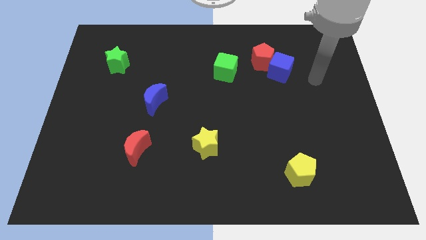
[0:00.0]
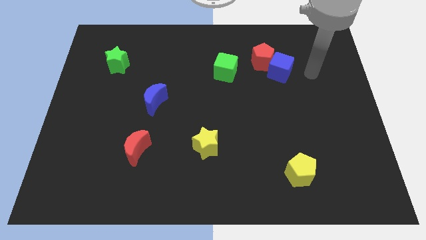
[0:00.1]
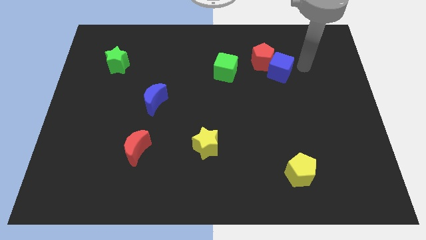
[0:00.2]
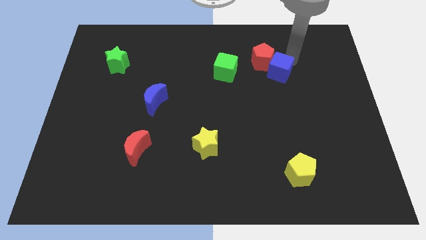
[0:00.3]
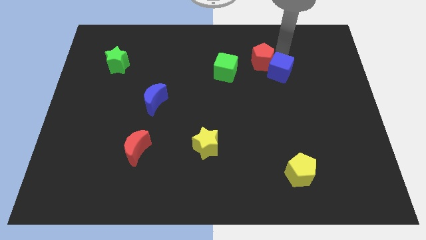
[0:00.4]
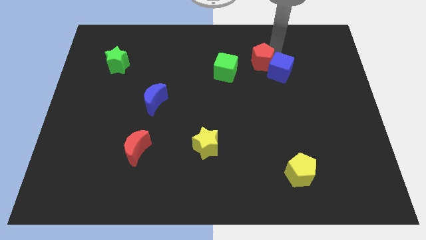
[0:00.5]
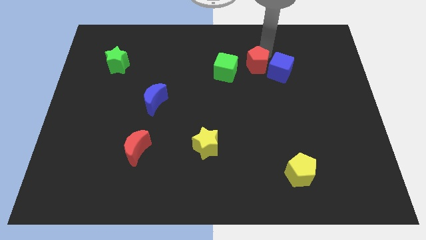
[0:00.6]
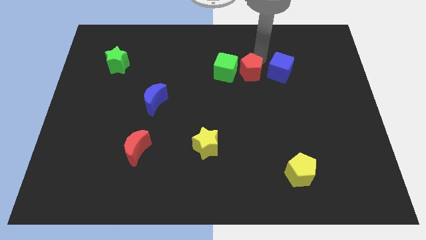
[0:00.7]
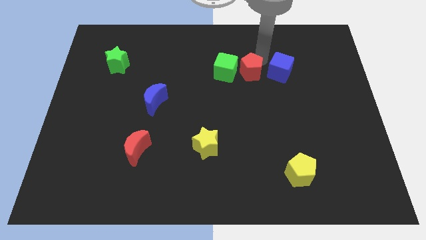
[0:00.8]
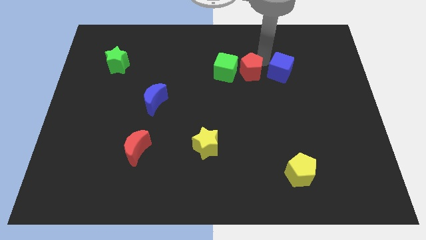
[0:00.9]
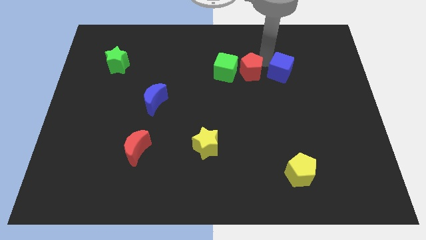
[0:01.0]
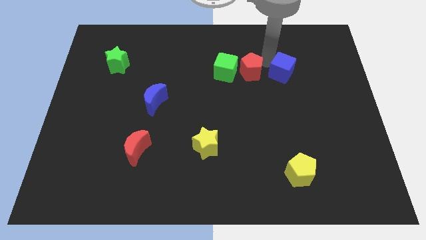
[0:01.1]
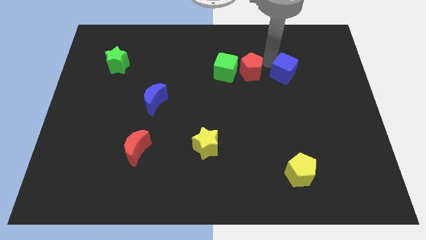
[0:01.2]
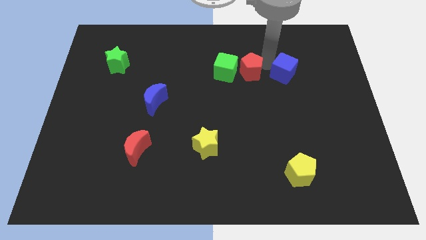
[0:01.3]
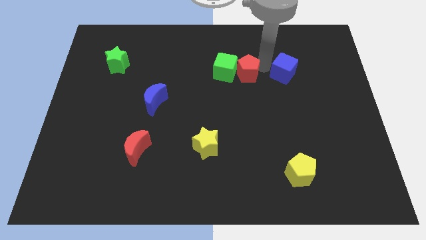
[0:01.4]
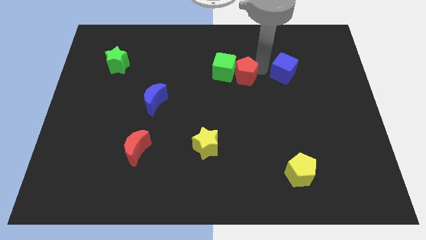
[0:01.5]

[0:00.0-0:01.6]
pull the blue cube apart from the red pentagon

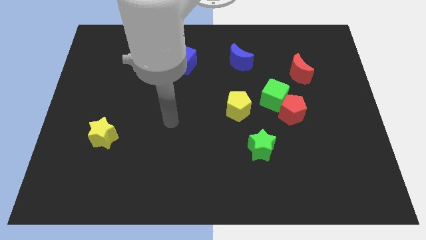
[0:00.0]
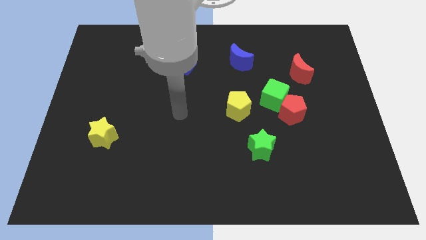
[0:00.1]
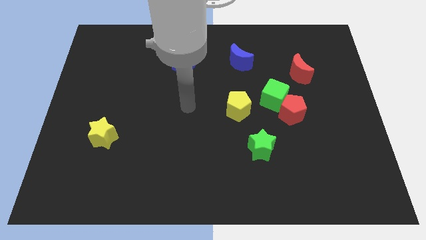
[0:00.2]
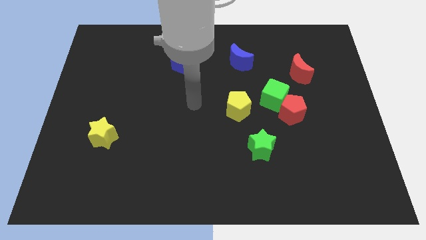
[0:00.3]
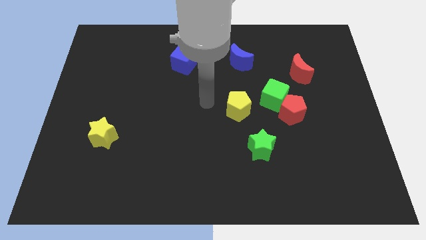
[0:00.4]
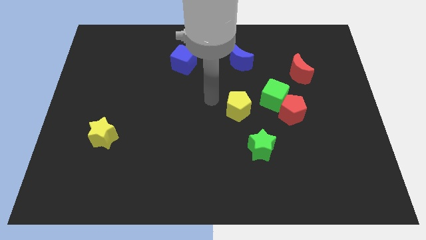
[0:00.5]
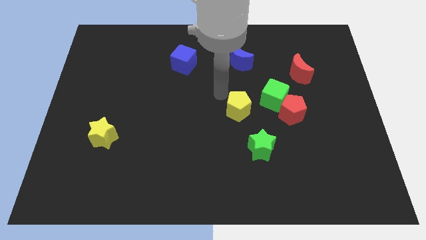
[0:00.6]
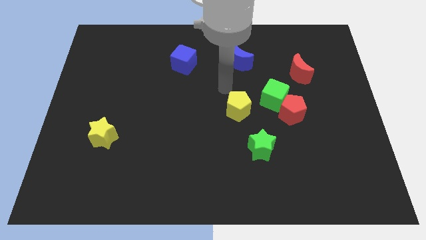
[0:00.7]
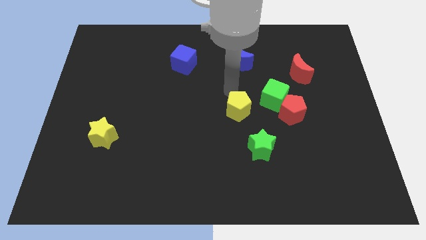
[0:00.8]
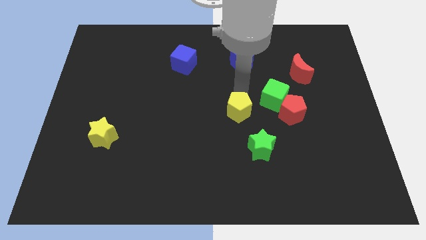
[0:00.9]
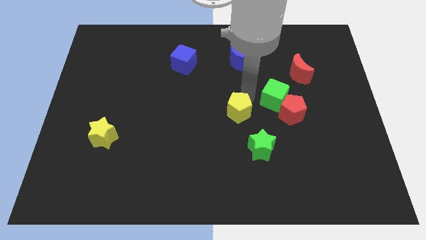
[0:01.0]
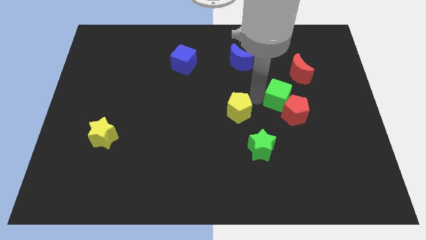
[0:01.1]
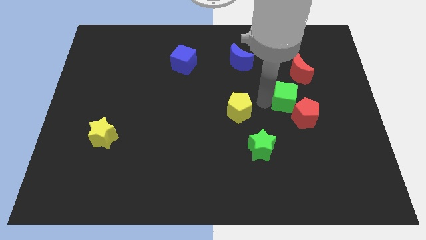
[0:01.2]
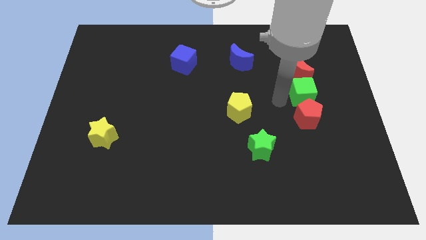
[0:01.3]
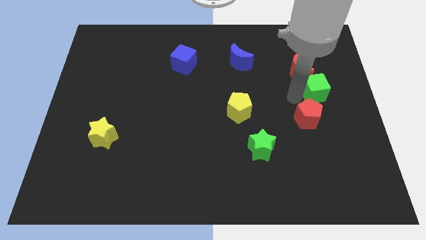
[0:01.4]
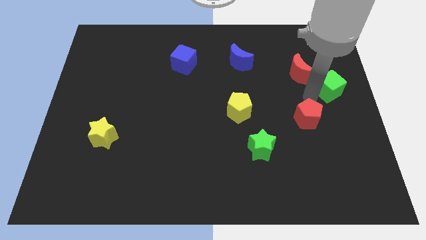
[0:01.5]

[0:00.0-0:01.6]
move the red pentagon away from the green cube

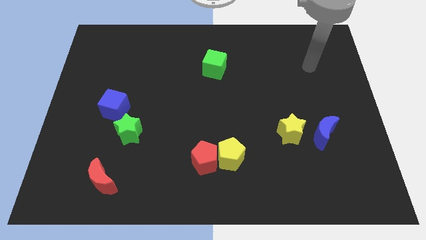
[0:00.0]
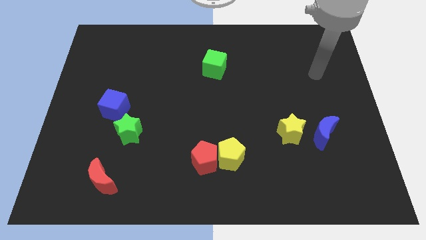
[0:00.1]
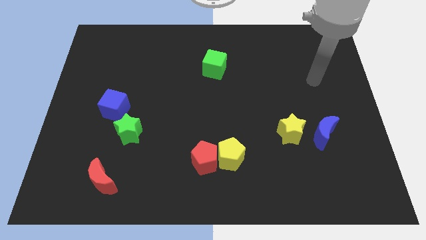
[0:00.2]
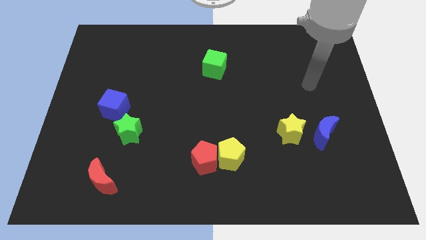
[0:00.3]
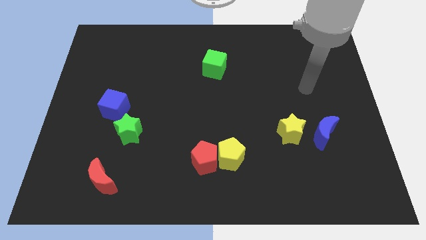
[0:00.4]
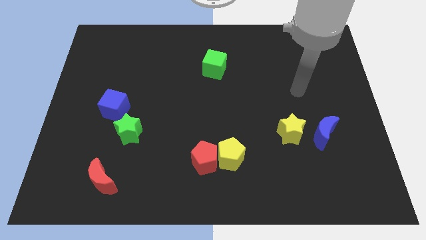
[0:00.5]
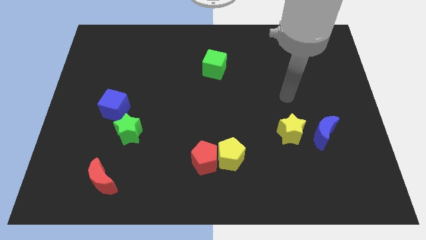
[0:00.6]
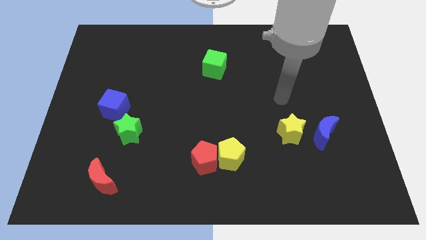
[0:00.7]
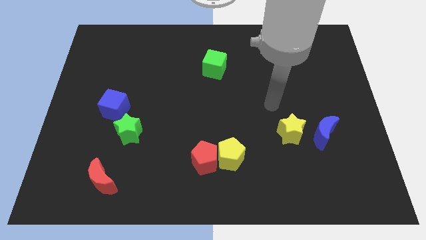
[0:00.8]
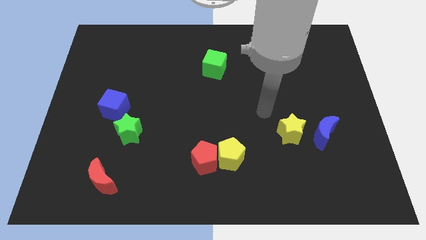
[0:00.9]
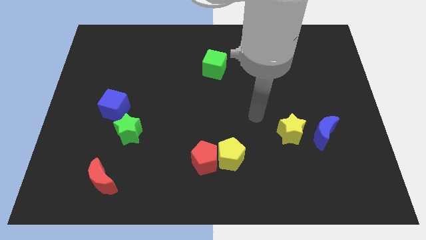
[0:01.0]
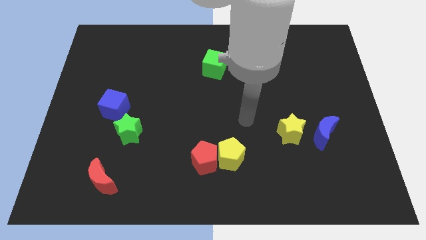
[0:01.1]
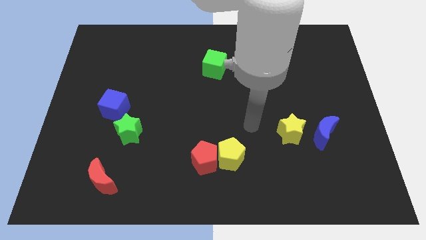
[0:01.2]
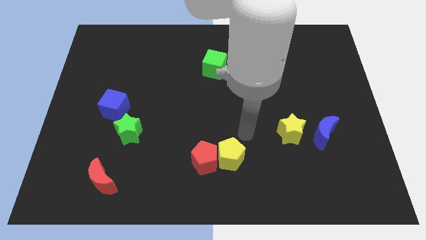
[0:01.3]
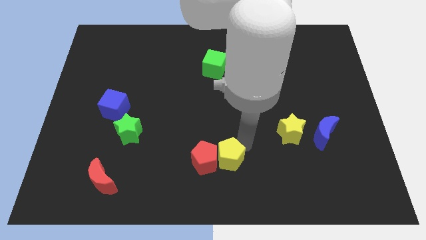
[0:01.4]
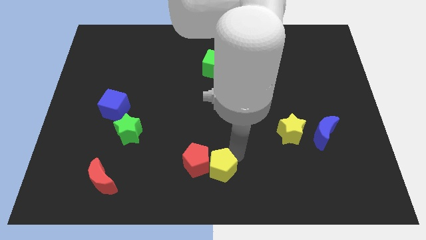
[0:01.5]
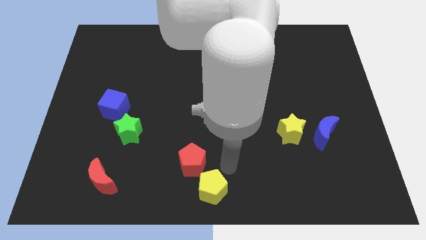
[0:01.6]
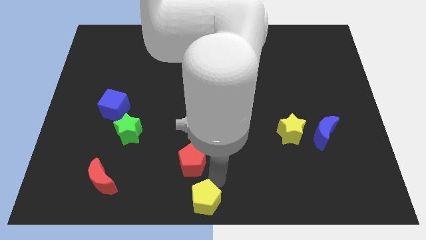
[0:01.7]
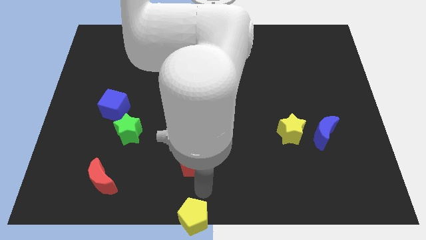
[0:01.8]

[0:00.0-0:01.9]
pull the red pentagon apart from the yellow pentagon

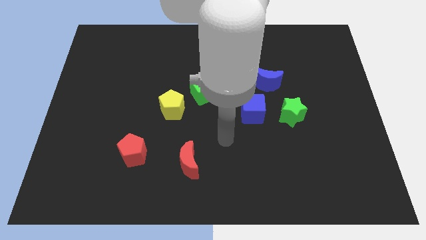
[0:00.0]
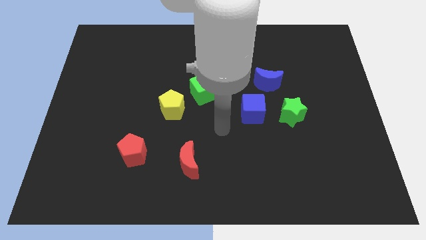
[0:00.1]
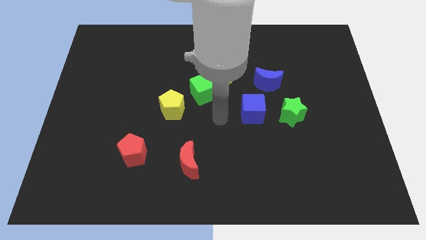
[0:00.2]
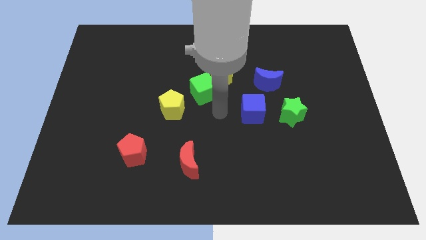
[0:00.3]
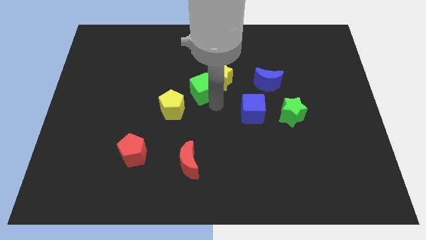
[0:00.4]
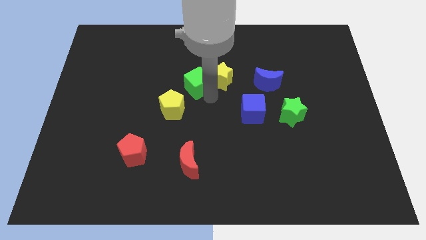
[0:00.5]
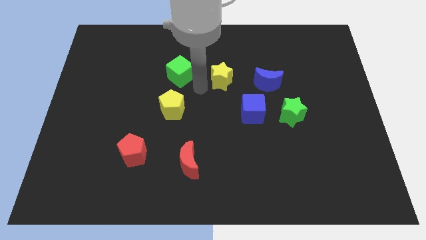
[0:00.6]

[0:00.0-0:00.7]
separate the yellow star from the green cube

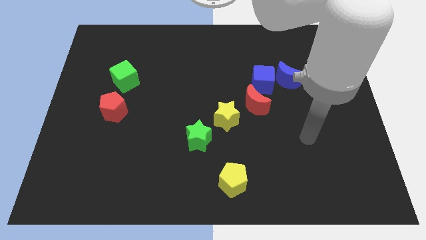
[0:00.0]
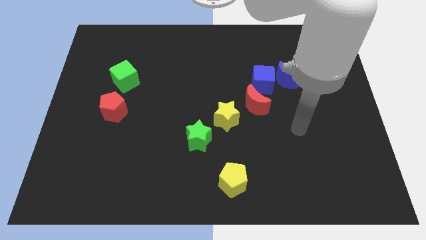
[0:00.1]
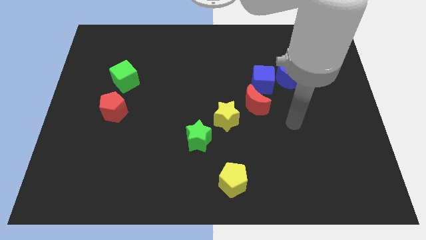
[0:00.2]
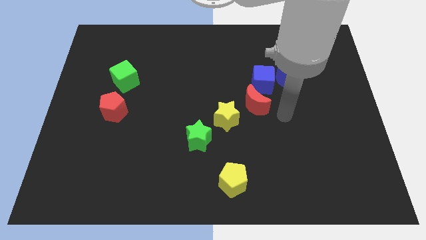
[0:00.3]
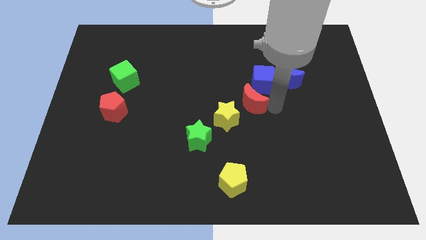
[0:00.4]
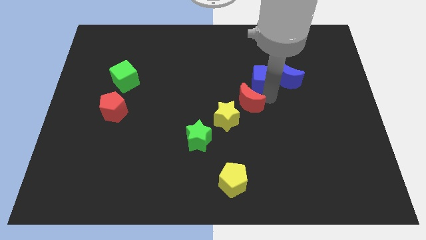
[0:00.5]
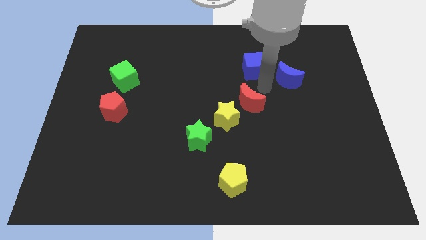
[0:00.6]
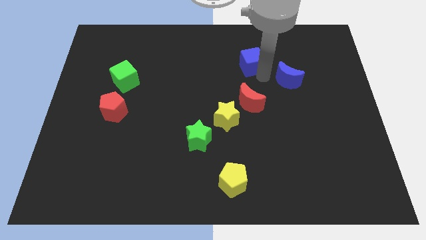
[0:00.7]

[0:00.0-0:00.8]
separate the blue moon from the blue cube

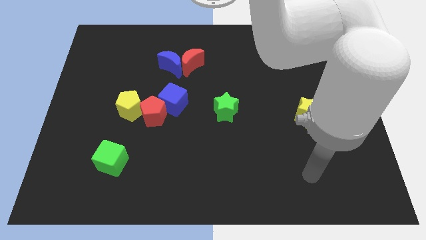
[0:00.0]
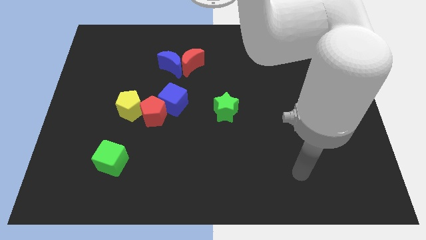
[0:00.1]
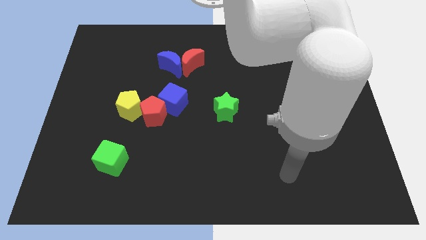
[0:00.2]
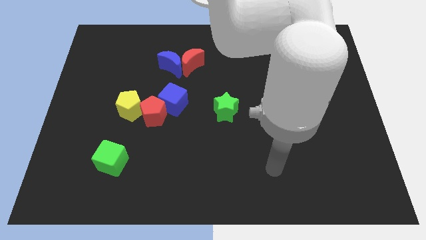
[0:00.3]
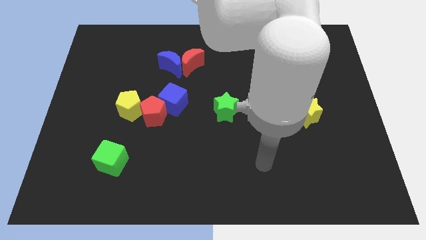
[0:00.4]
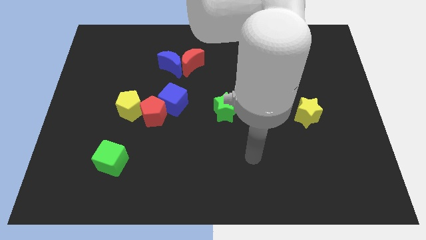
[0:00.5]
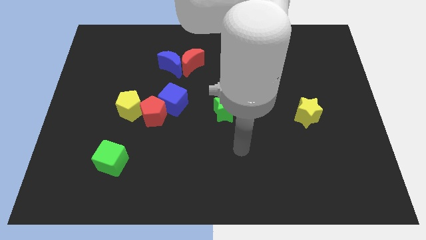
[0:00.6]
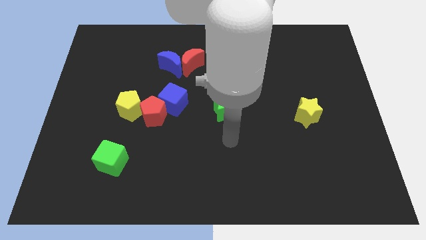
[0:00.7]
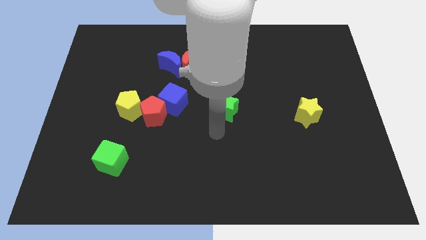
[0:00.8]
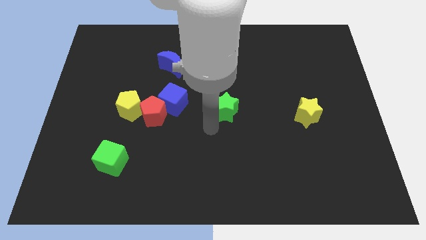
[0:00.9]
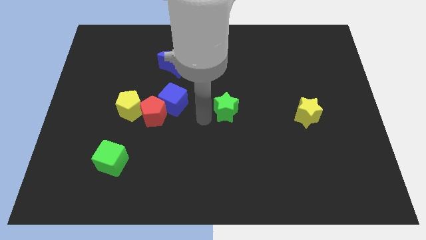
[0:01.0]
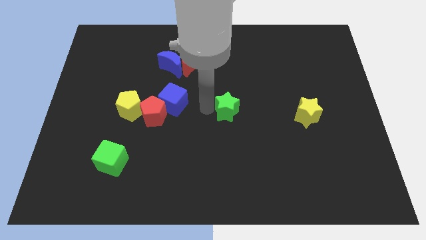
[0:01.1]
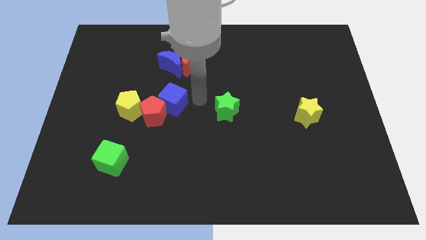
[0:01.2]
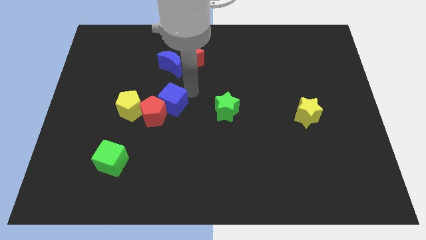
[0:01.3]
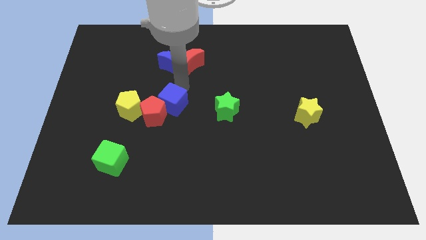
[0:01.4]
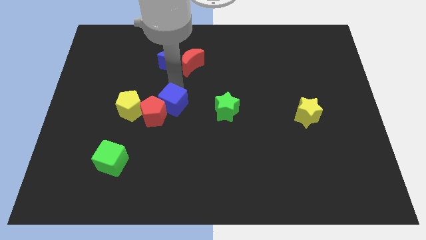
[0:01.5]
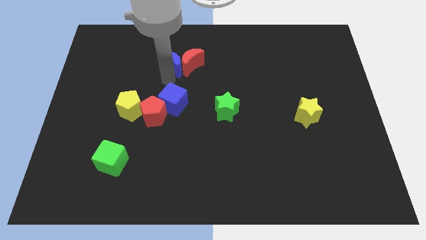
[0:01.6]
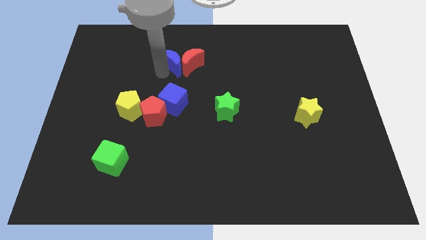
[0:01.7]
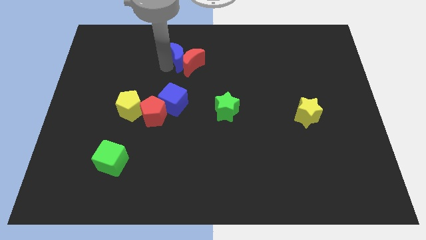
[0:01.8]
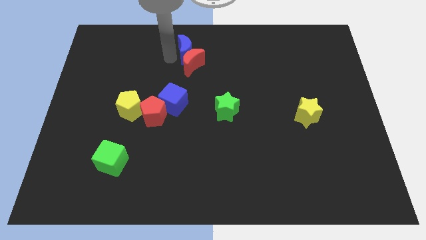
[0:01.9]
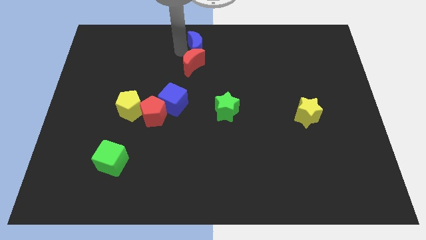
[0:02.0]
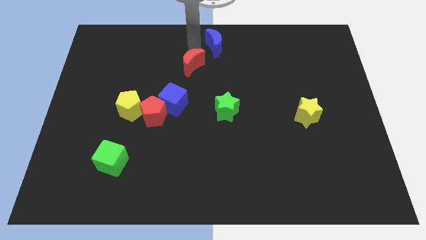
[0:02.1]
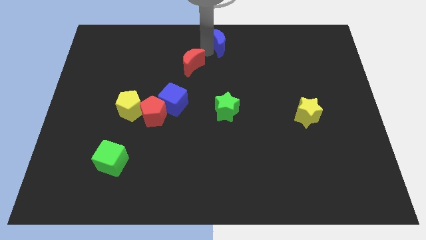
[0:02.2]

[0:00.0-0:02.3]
move the red moon away from the blue moon

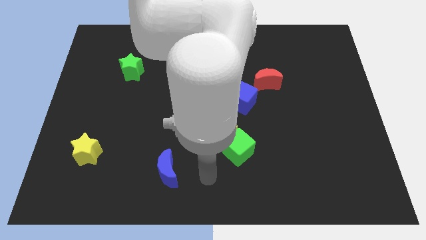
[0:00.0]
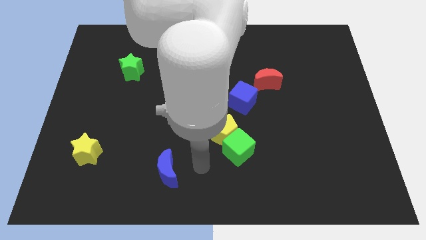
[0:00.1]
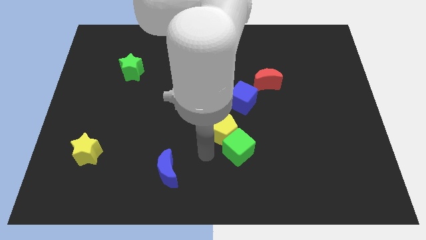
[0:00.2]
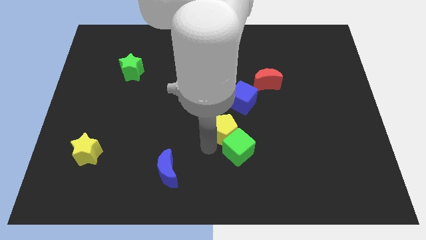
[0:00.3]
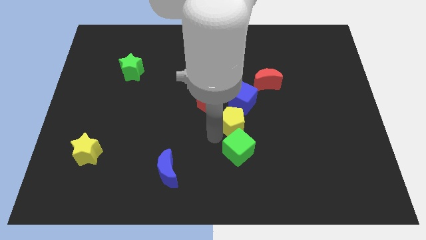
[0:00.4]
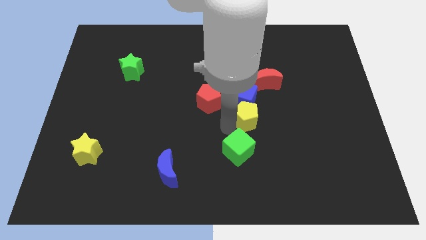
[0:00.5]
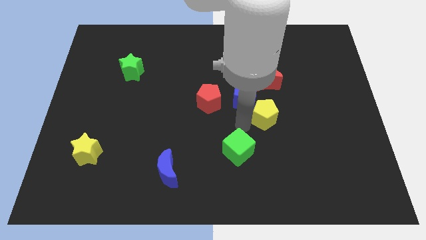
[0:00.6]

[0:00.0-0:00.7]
move the green cube away from the yellow pentagon
